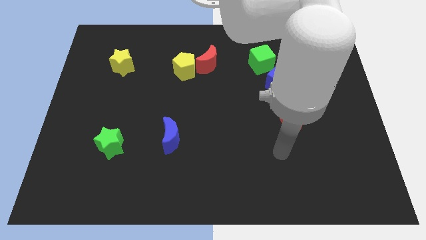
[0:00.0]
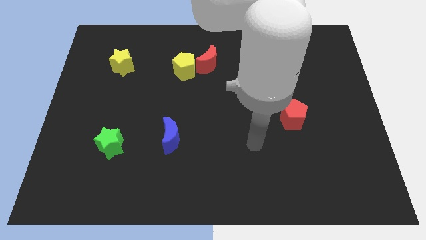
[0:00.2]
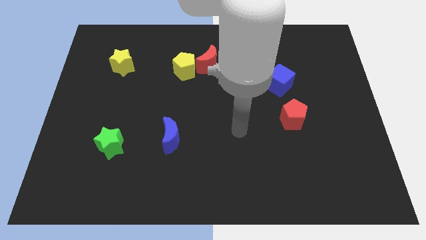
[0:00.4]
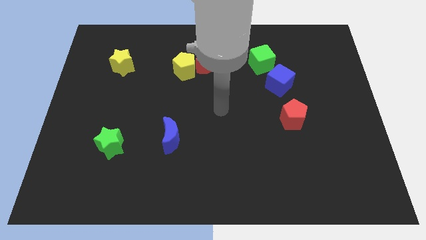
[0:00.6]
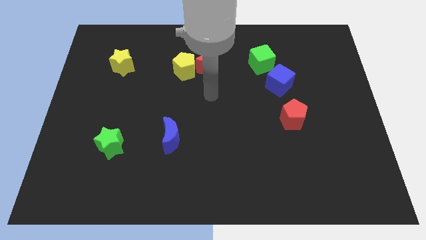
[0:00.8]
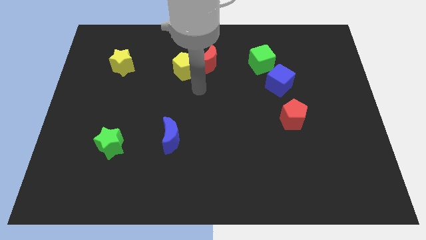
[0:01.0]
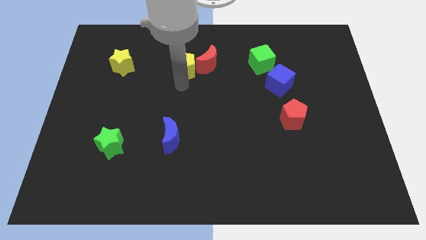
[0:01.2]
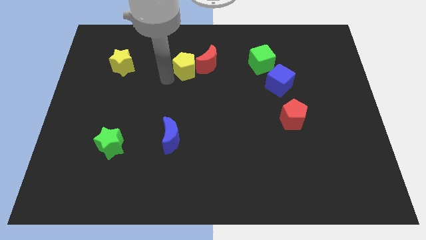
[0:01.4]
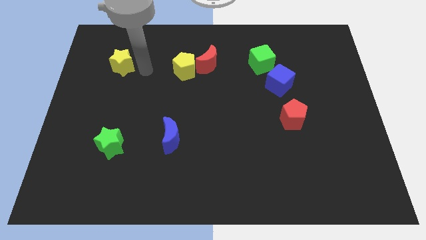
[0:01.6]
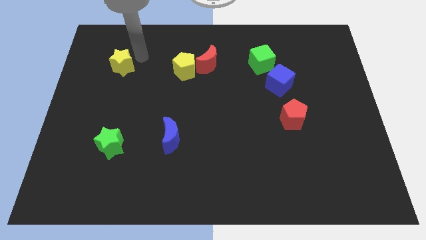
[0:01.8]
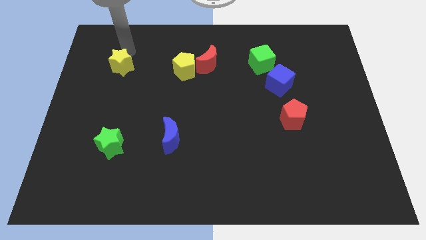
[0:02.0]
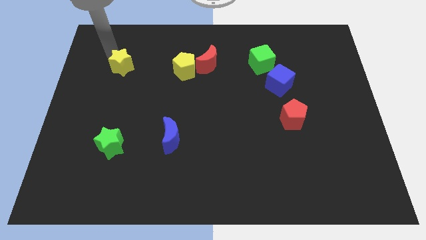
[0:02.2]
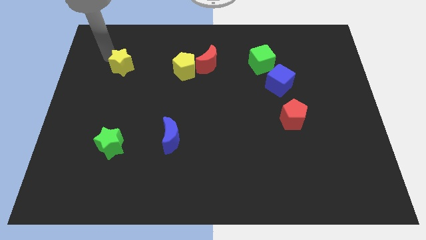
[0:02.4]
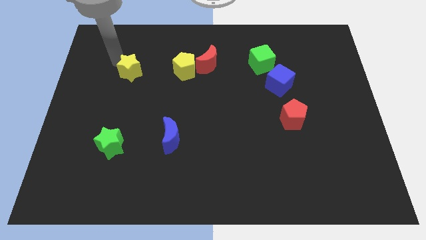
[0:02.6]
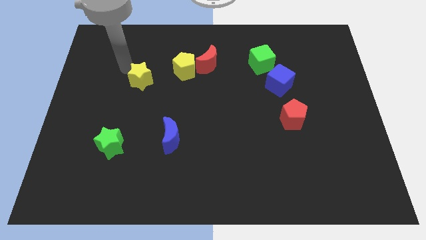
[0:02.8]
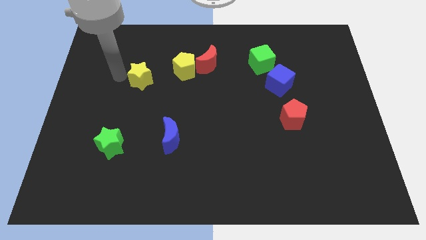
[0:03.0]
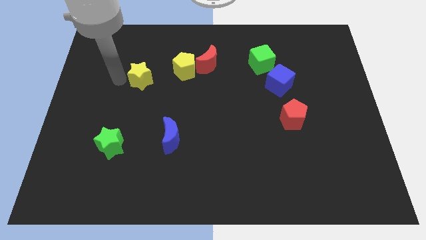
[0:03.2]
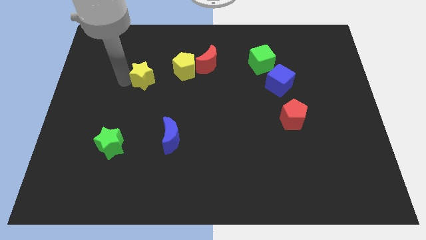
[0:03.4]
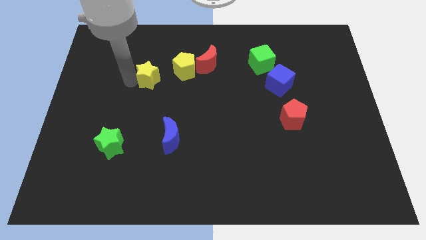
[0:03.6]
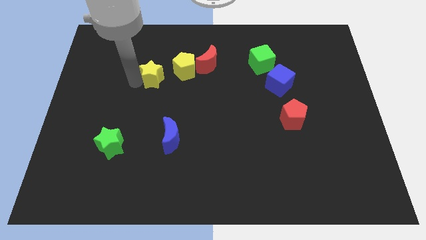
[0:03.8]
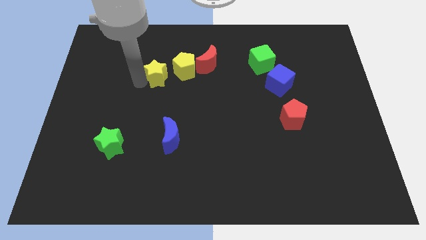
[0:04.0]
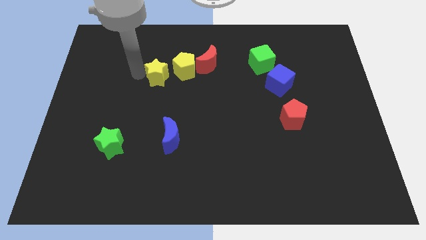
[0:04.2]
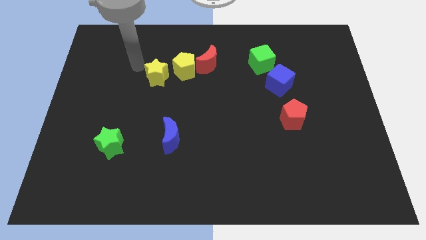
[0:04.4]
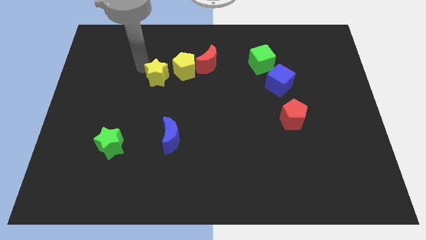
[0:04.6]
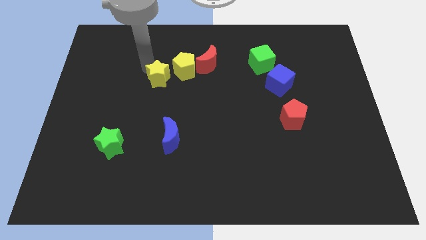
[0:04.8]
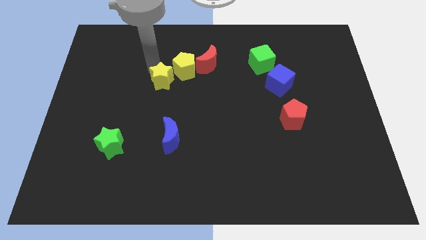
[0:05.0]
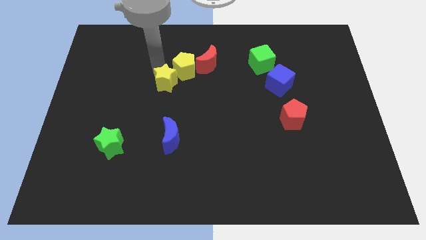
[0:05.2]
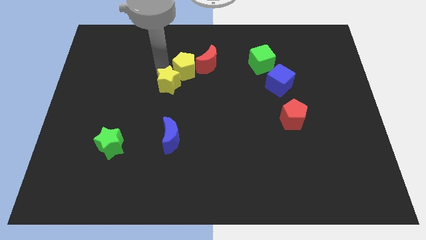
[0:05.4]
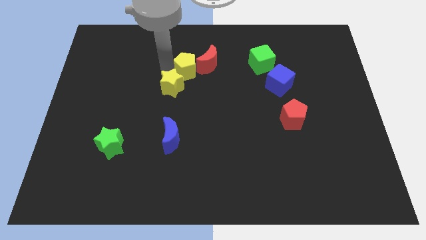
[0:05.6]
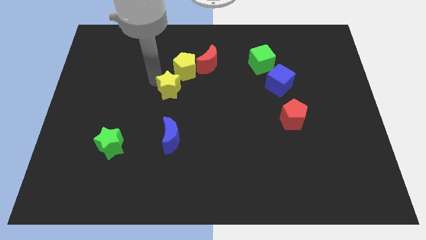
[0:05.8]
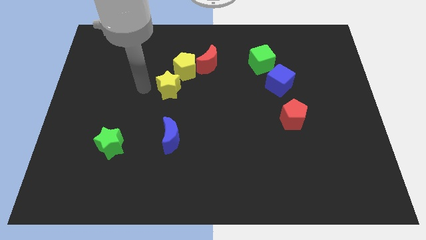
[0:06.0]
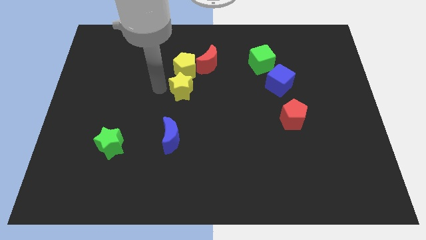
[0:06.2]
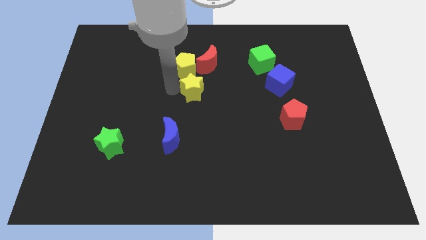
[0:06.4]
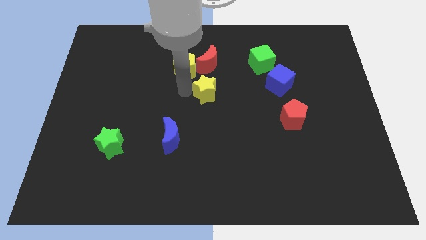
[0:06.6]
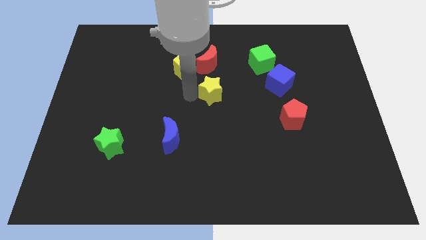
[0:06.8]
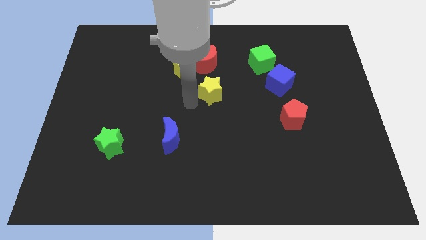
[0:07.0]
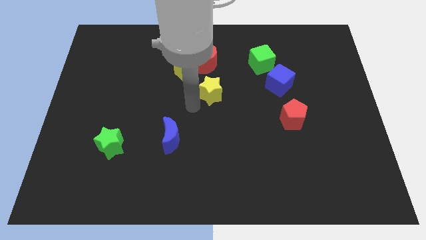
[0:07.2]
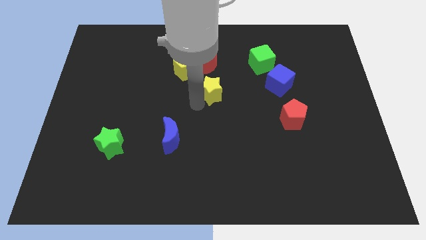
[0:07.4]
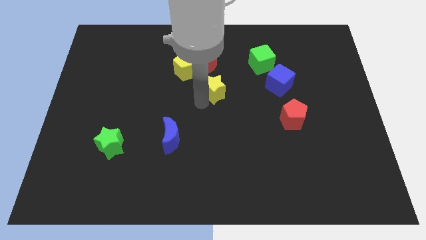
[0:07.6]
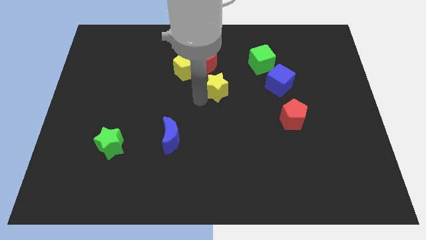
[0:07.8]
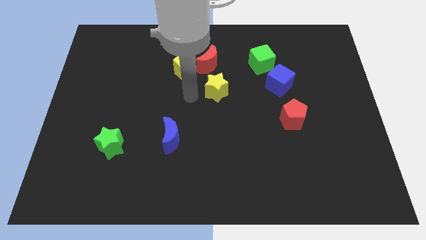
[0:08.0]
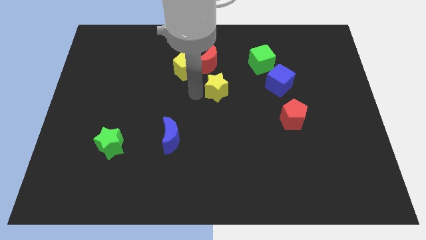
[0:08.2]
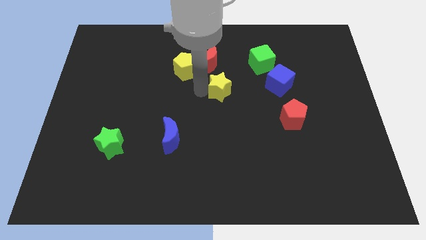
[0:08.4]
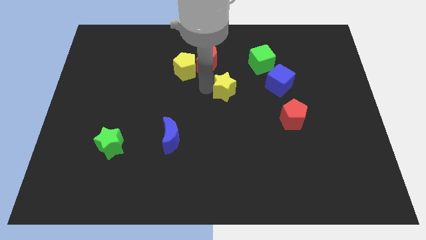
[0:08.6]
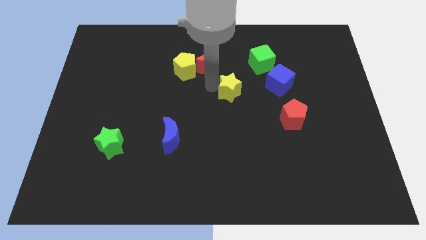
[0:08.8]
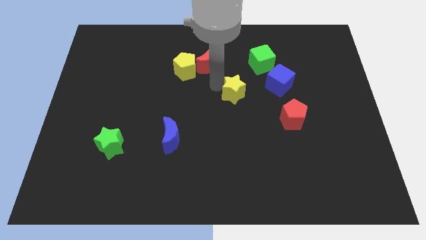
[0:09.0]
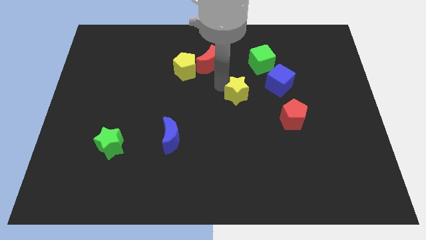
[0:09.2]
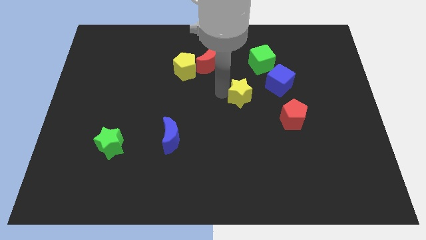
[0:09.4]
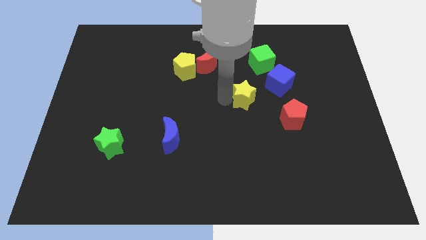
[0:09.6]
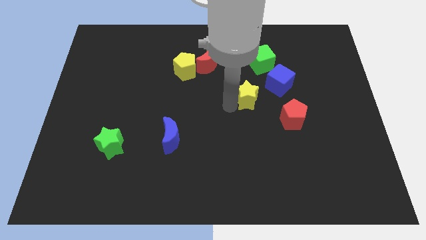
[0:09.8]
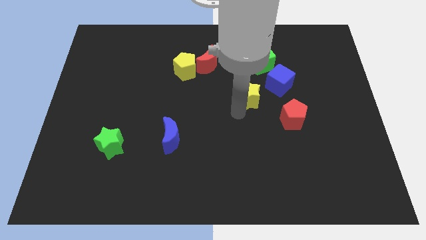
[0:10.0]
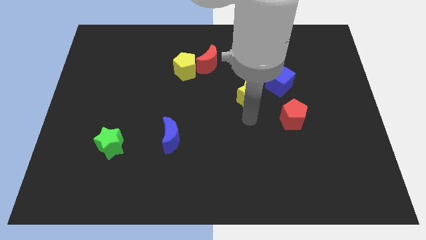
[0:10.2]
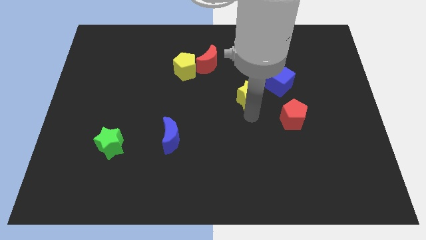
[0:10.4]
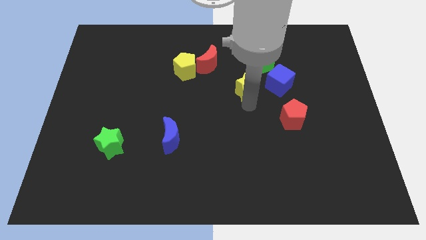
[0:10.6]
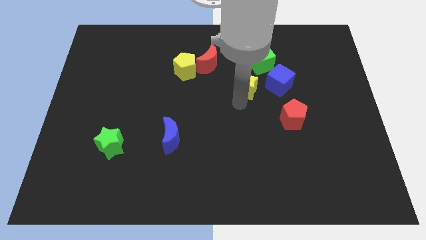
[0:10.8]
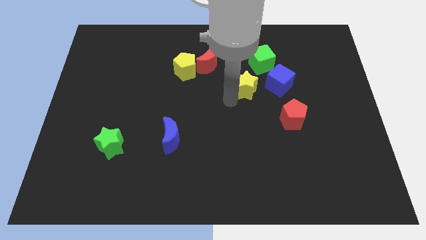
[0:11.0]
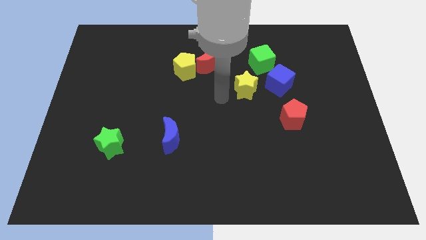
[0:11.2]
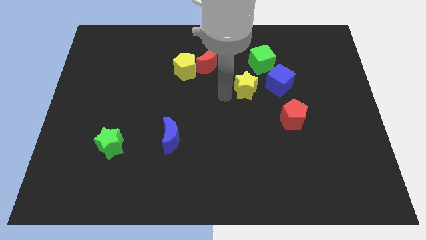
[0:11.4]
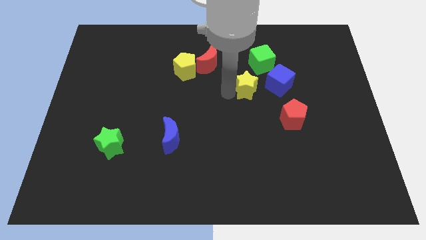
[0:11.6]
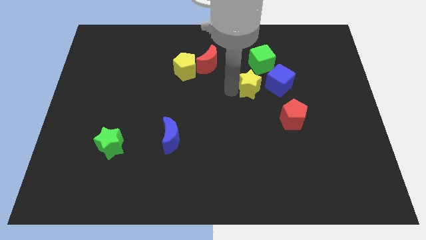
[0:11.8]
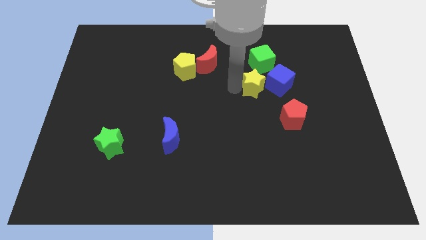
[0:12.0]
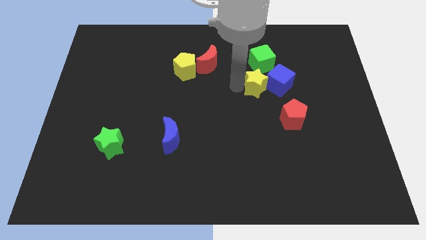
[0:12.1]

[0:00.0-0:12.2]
move the yellow star towards the blue cube

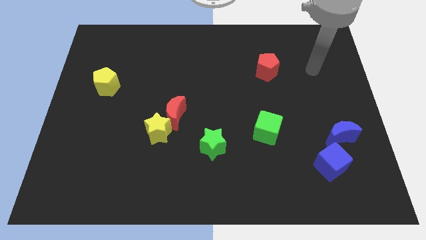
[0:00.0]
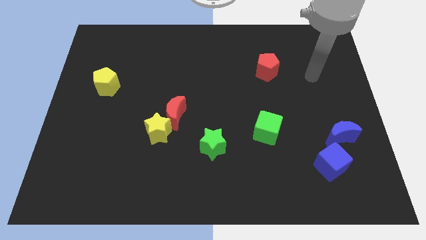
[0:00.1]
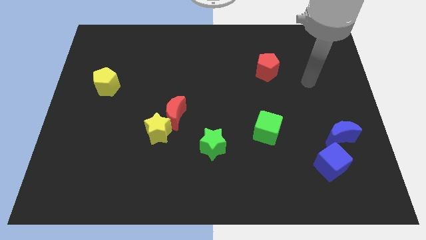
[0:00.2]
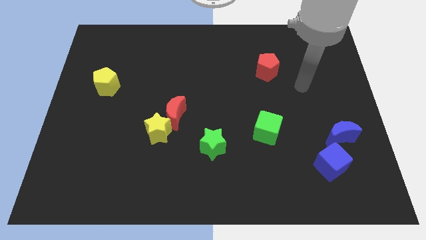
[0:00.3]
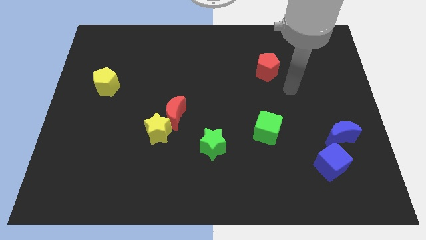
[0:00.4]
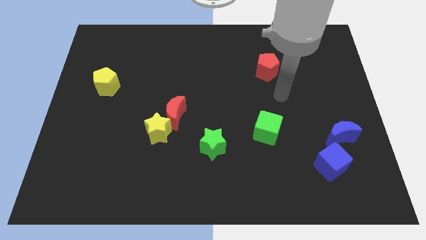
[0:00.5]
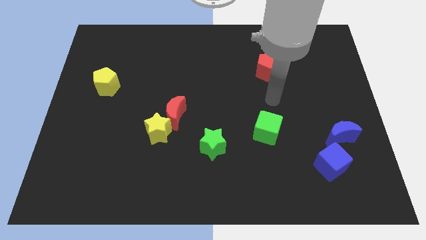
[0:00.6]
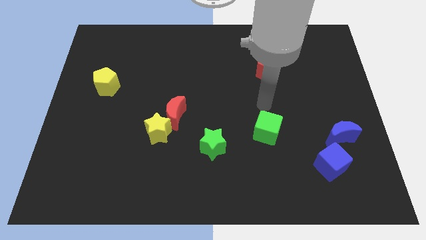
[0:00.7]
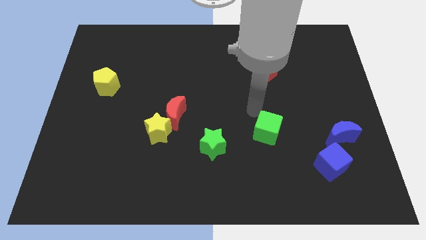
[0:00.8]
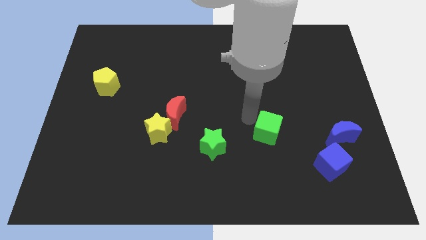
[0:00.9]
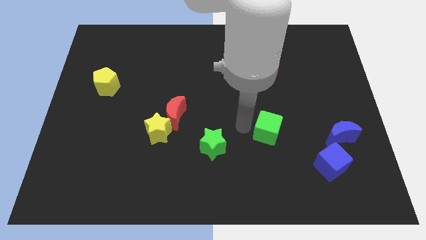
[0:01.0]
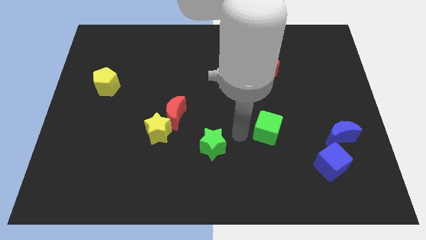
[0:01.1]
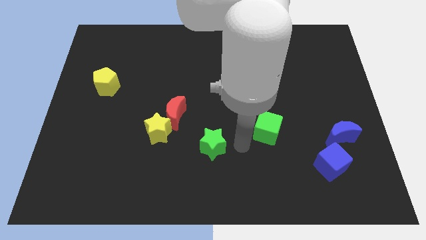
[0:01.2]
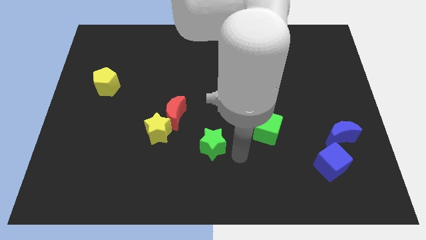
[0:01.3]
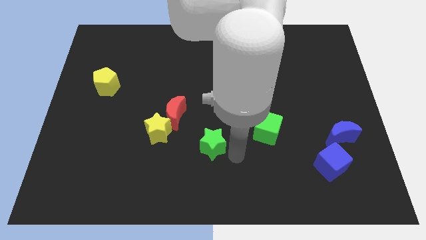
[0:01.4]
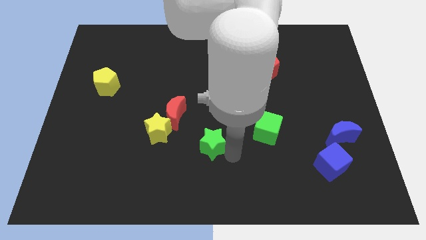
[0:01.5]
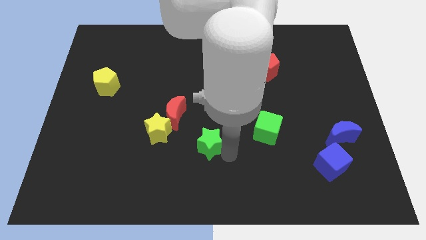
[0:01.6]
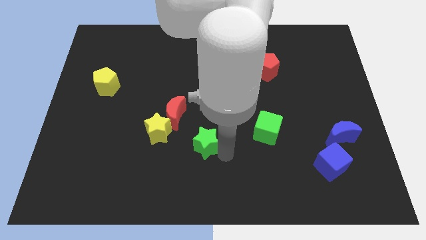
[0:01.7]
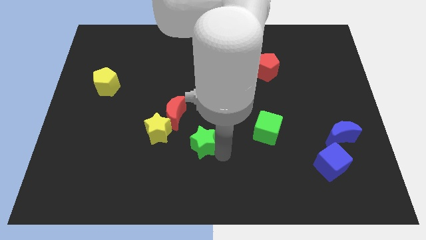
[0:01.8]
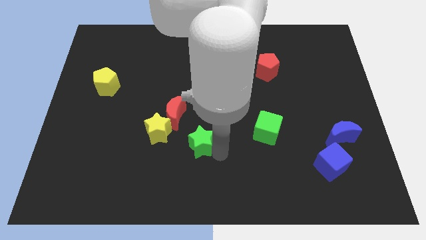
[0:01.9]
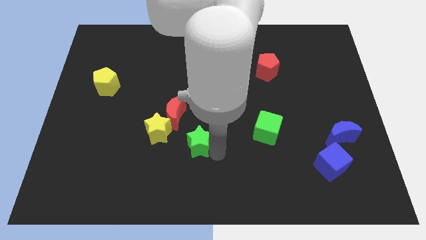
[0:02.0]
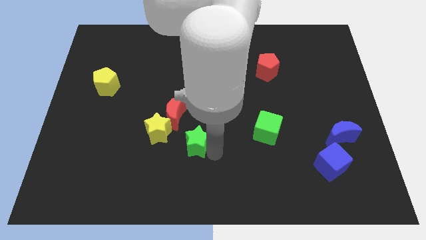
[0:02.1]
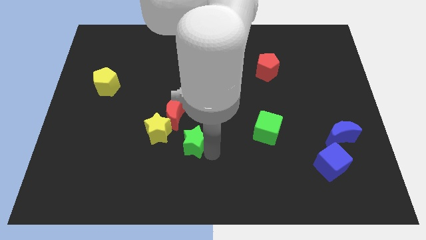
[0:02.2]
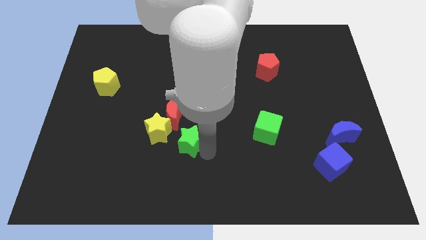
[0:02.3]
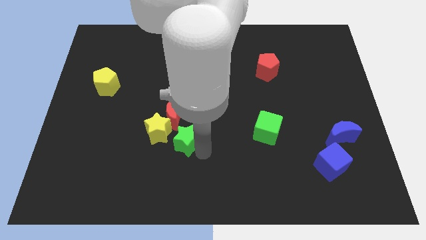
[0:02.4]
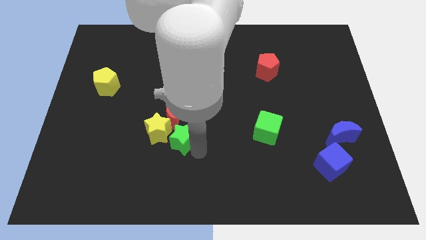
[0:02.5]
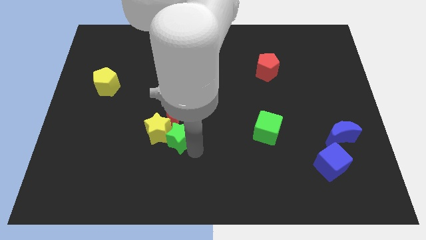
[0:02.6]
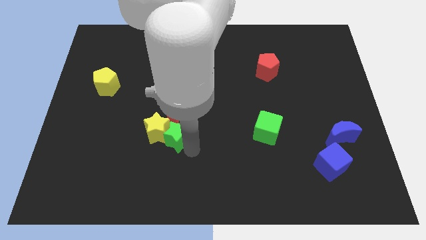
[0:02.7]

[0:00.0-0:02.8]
move the green star close to the red moon
